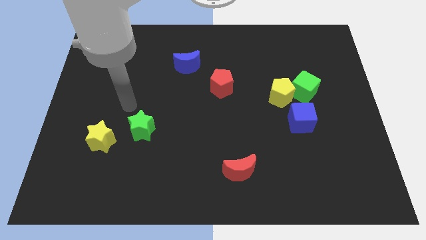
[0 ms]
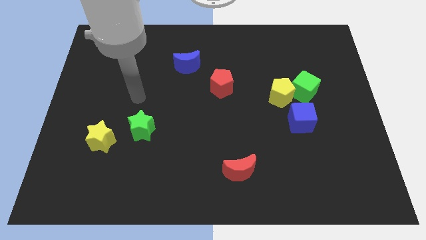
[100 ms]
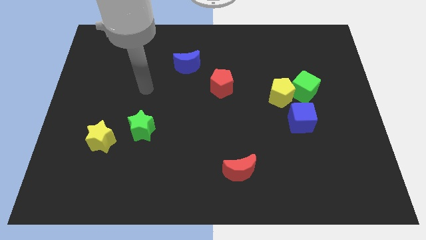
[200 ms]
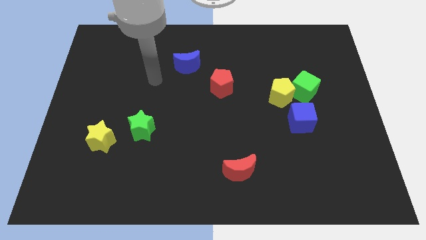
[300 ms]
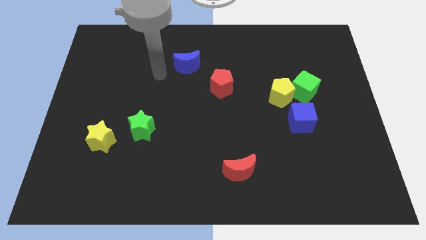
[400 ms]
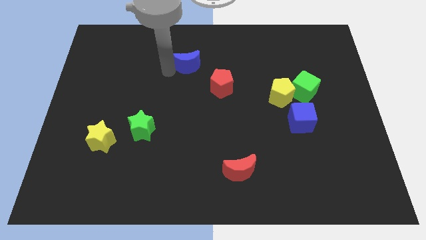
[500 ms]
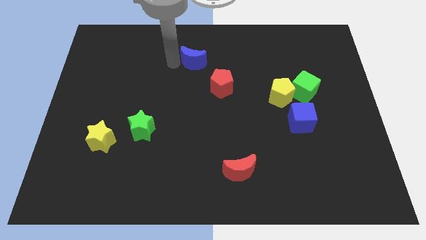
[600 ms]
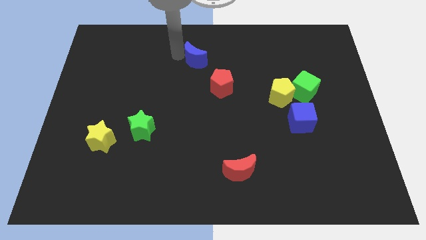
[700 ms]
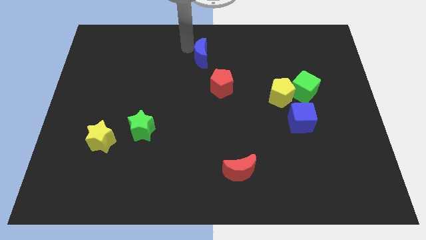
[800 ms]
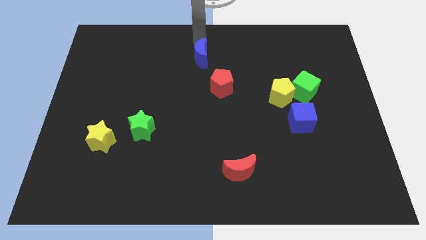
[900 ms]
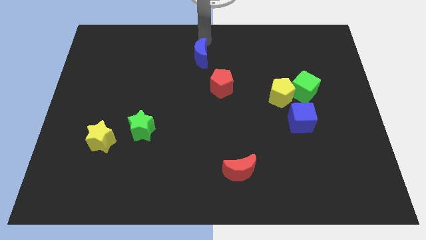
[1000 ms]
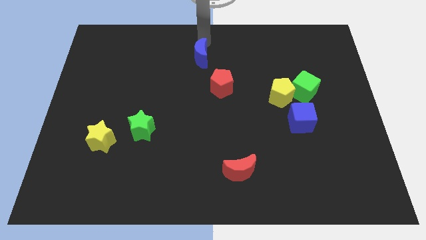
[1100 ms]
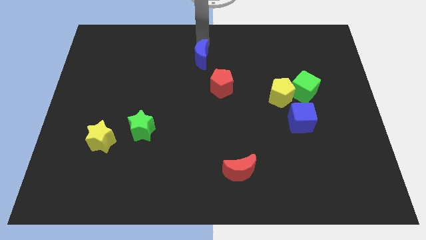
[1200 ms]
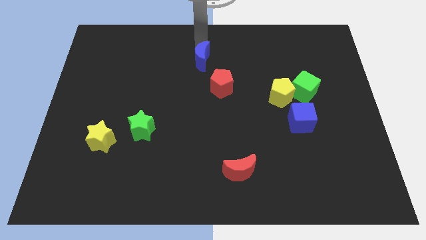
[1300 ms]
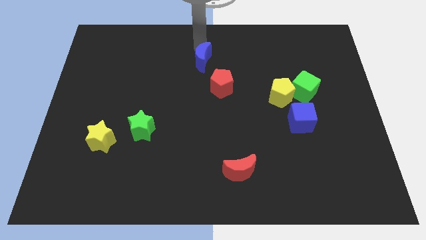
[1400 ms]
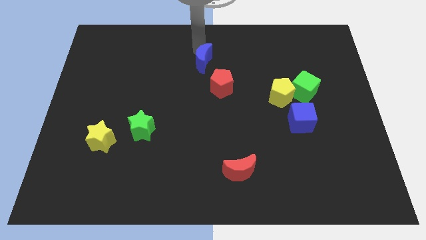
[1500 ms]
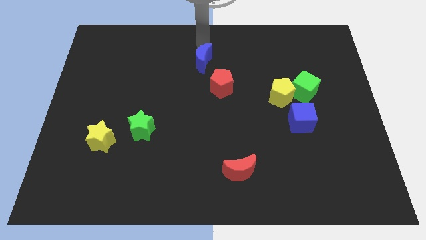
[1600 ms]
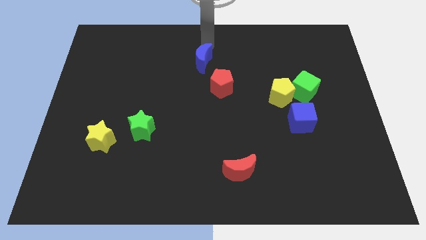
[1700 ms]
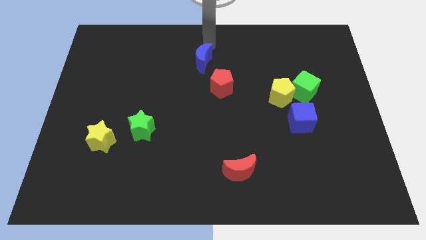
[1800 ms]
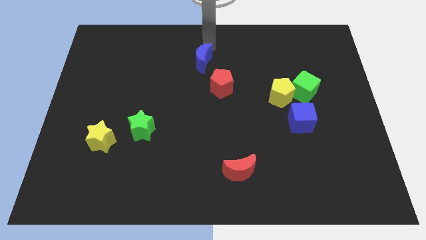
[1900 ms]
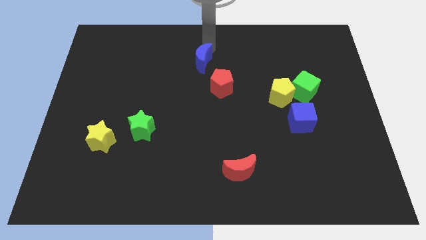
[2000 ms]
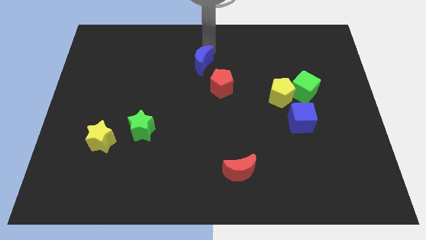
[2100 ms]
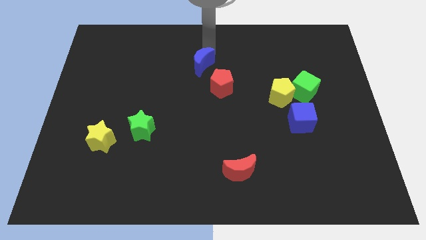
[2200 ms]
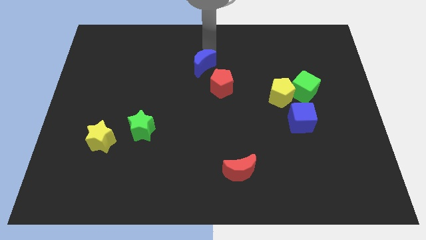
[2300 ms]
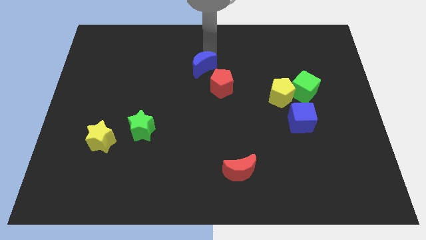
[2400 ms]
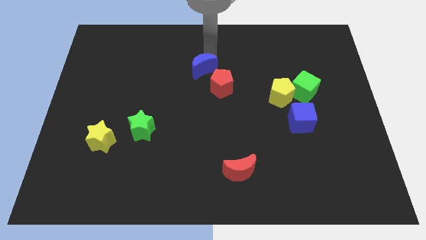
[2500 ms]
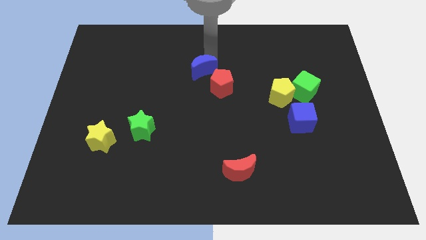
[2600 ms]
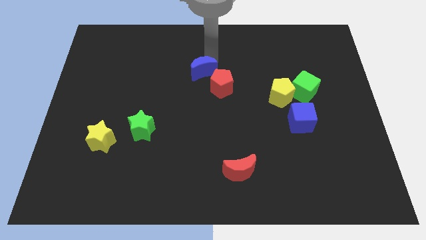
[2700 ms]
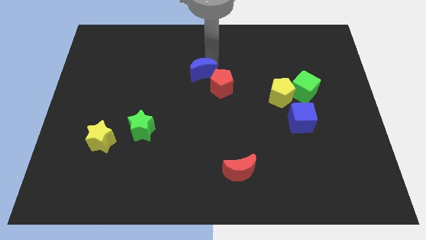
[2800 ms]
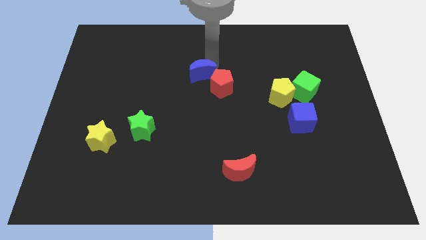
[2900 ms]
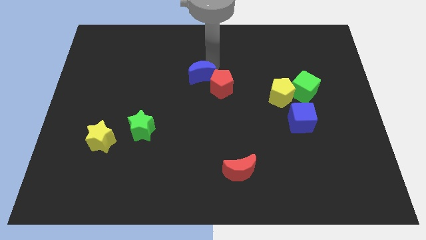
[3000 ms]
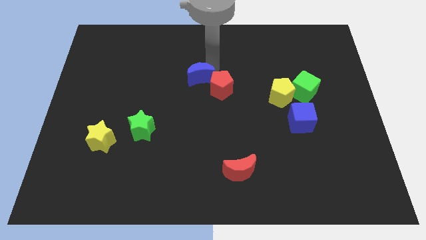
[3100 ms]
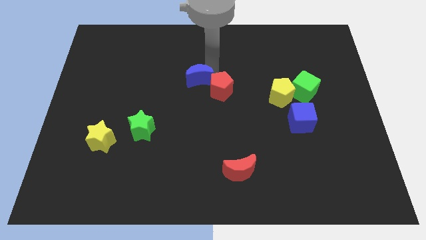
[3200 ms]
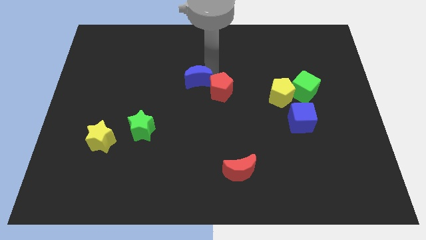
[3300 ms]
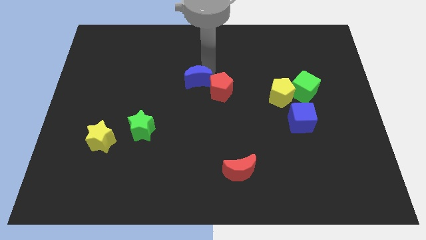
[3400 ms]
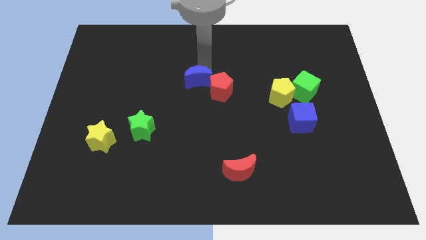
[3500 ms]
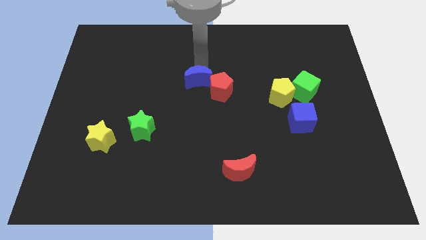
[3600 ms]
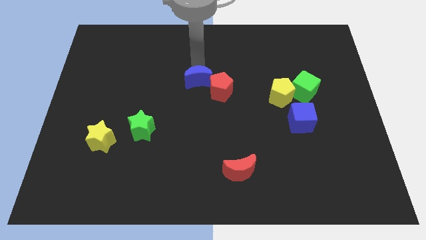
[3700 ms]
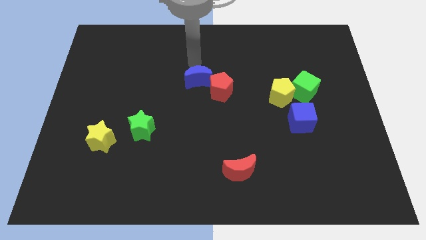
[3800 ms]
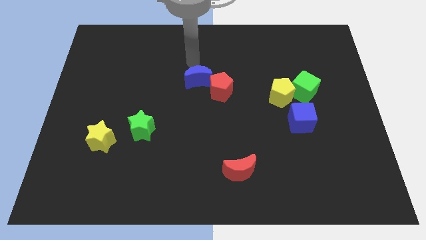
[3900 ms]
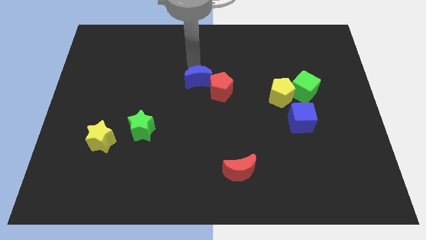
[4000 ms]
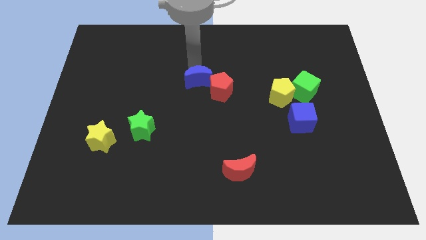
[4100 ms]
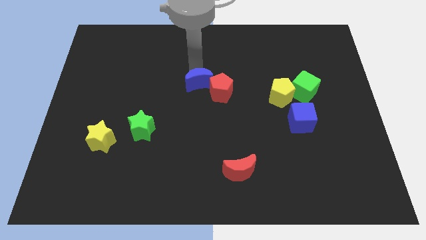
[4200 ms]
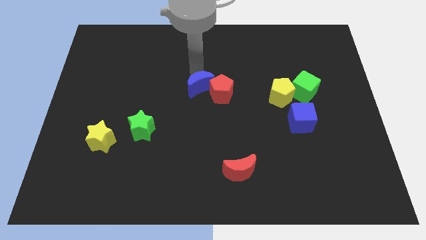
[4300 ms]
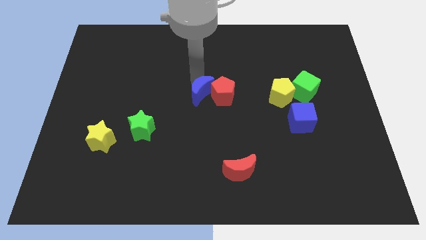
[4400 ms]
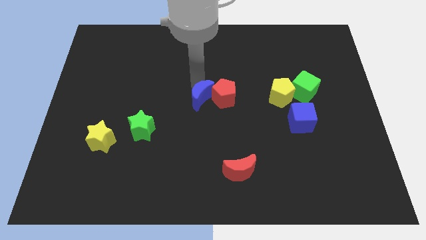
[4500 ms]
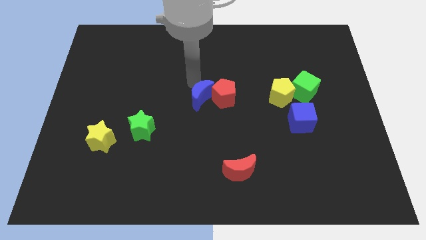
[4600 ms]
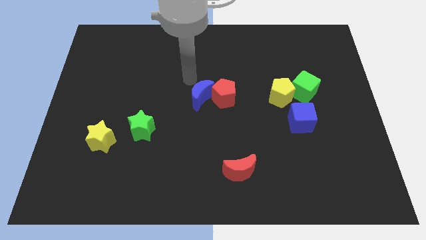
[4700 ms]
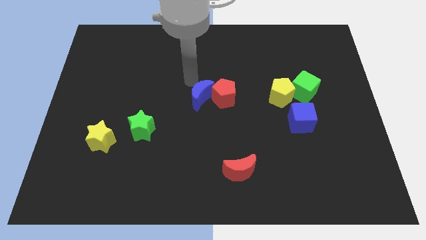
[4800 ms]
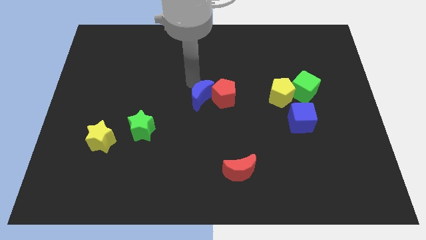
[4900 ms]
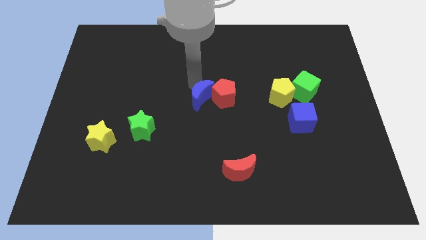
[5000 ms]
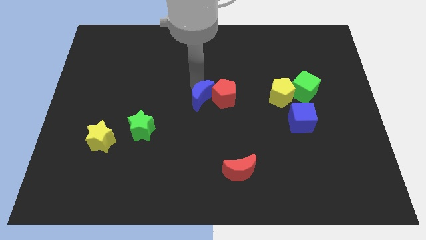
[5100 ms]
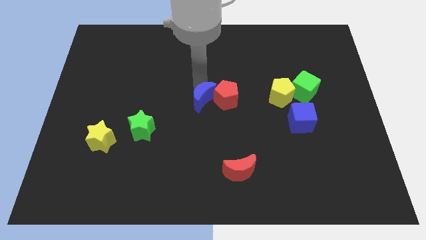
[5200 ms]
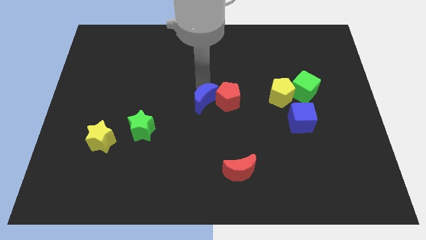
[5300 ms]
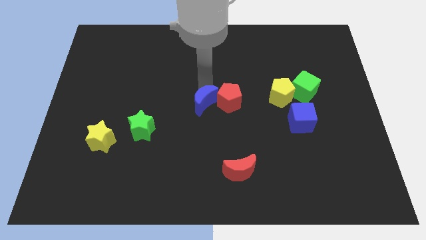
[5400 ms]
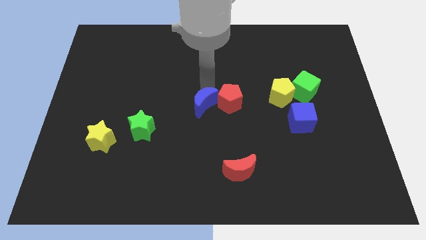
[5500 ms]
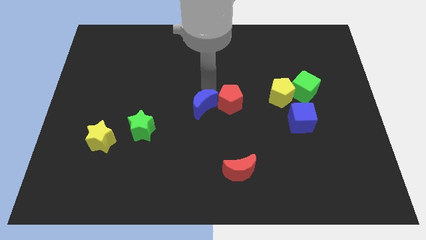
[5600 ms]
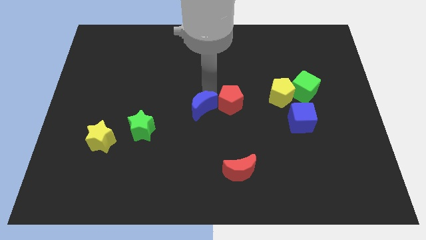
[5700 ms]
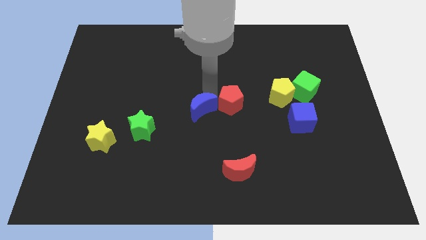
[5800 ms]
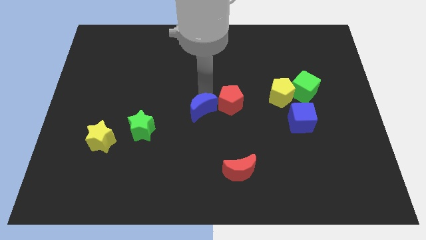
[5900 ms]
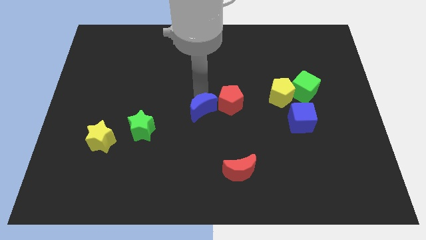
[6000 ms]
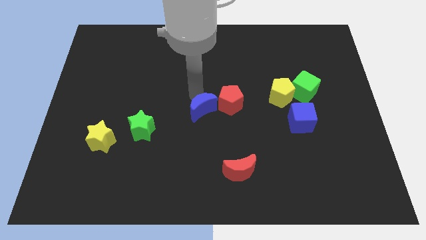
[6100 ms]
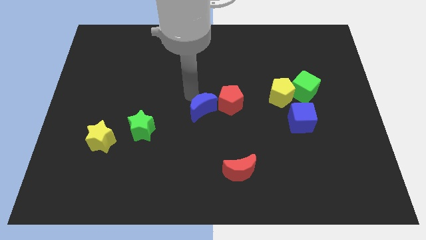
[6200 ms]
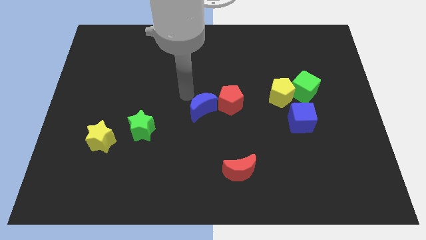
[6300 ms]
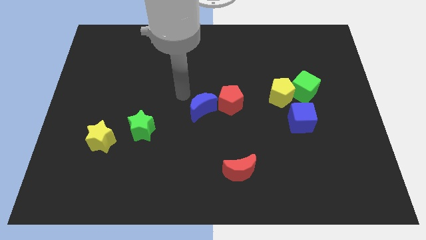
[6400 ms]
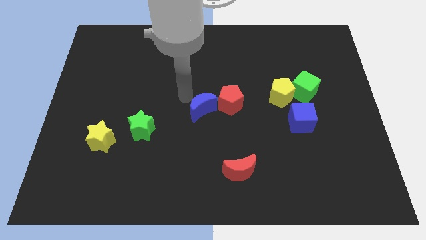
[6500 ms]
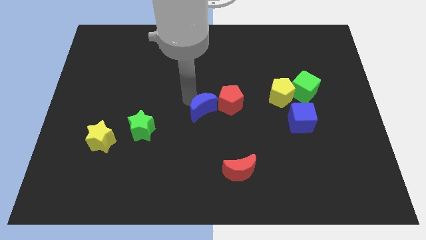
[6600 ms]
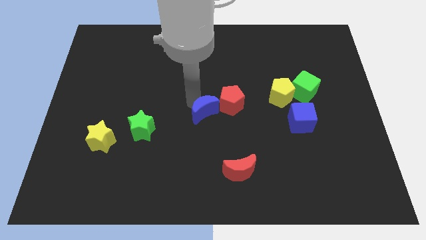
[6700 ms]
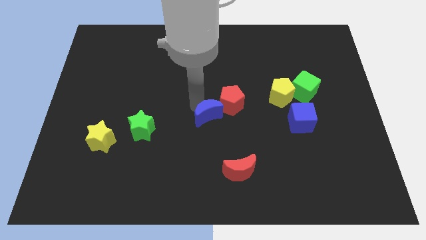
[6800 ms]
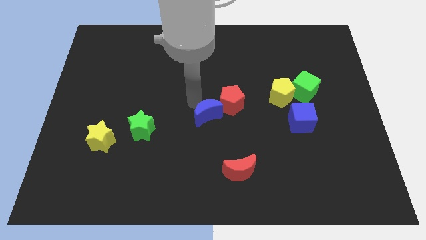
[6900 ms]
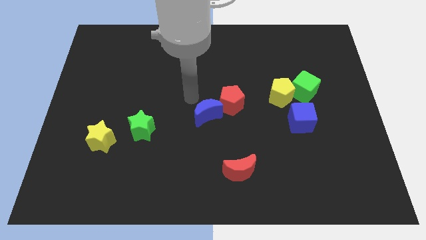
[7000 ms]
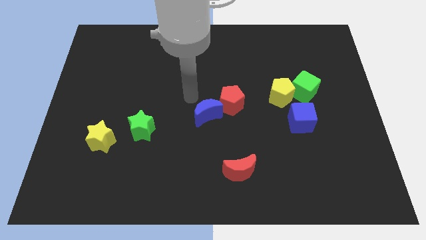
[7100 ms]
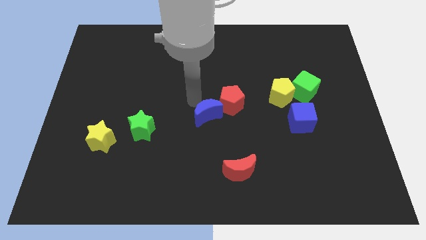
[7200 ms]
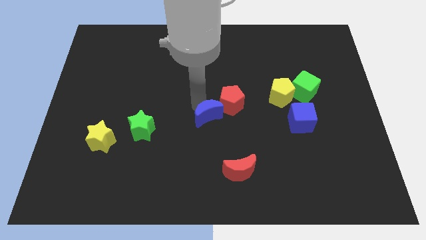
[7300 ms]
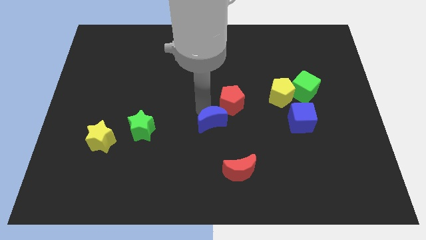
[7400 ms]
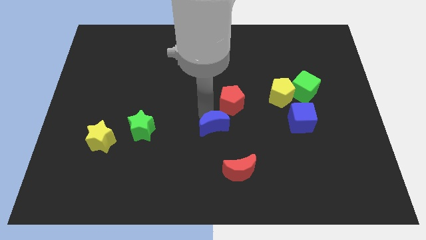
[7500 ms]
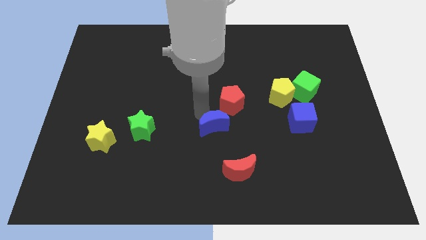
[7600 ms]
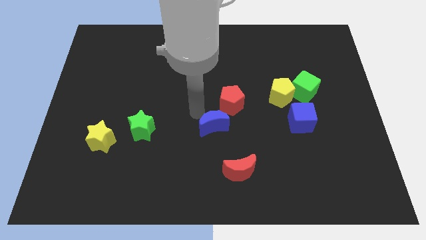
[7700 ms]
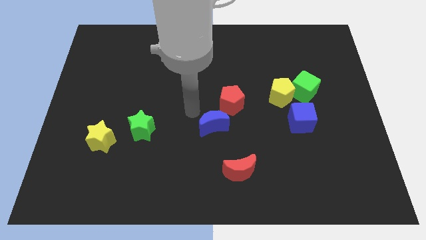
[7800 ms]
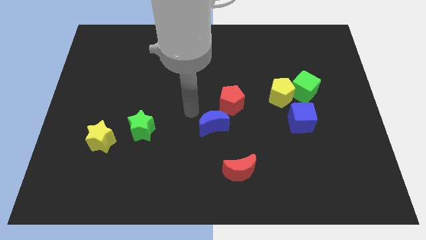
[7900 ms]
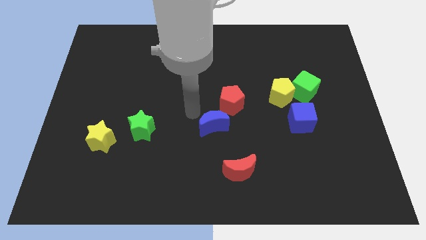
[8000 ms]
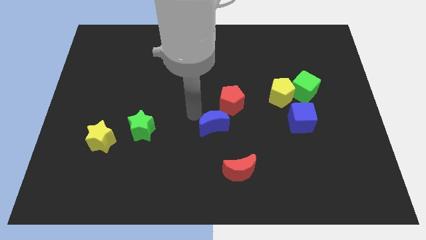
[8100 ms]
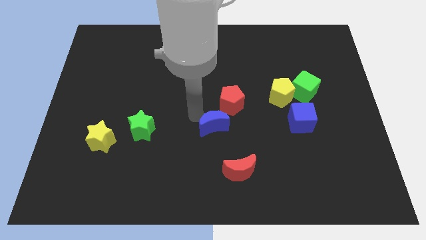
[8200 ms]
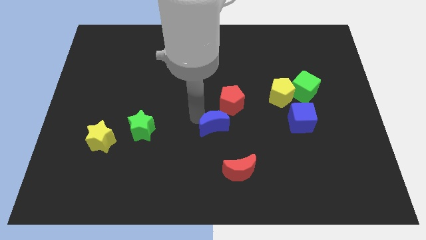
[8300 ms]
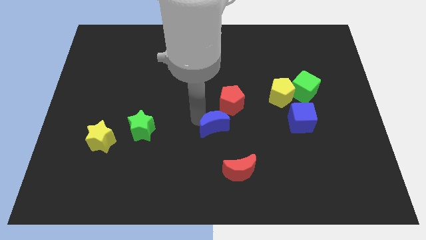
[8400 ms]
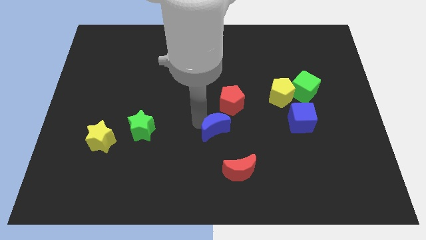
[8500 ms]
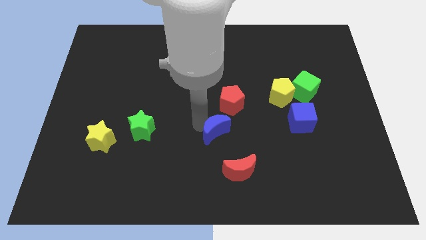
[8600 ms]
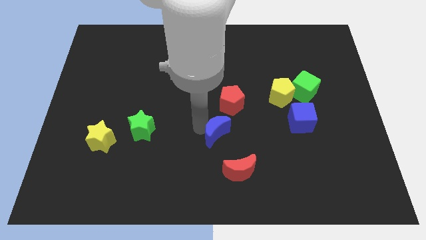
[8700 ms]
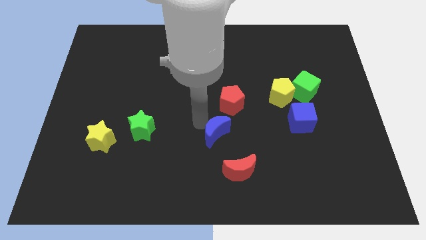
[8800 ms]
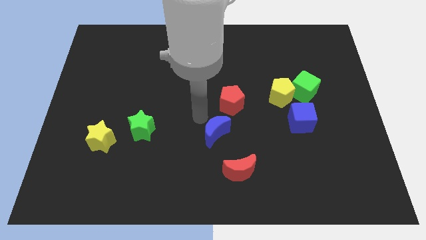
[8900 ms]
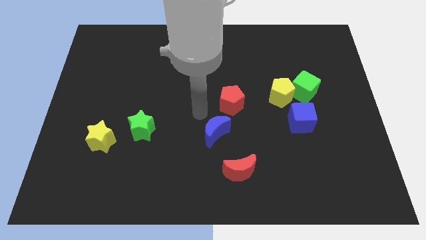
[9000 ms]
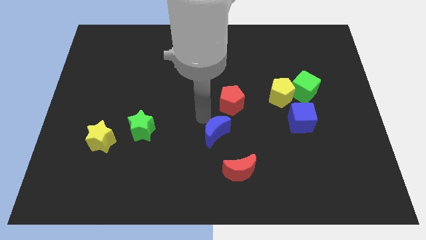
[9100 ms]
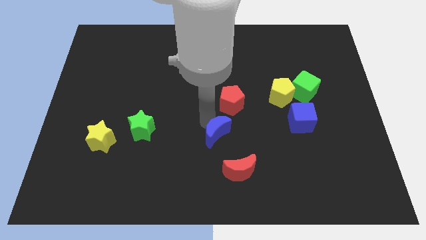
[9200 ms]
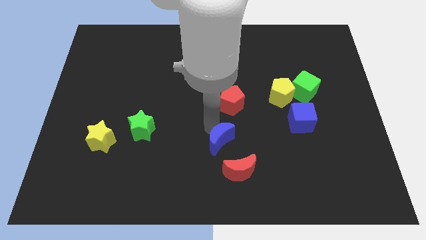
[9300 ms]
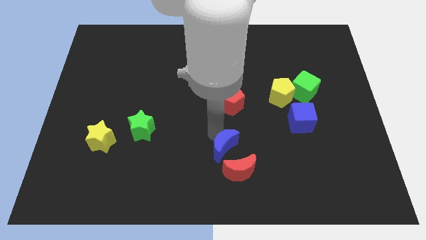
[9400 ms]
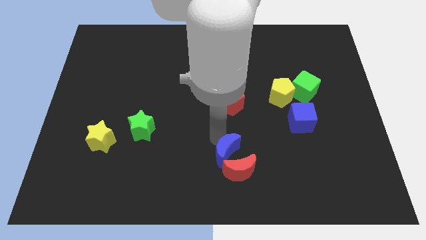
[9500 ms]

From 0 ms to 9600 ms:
put the blue moon towards the red moon
